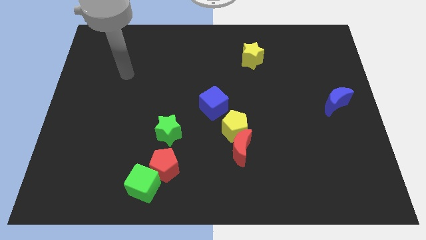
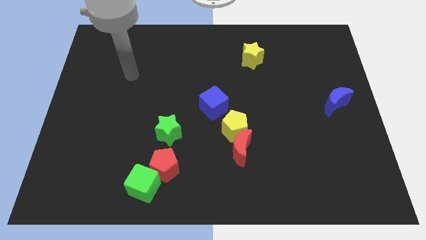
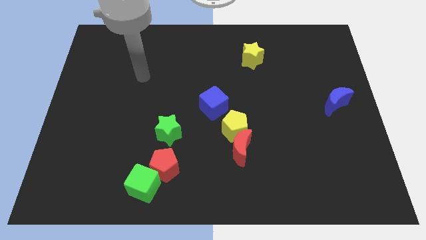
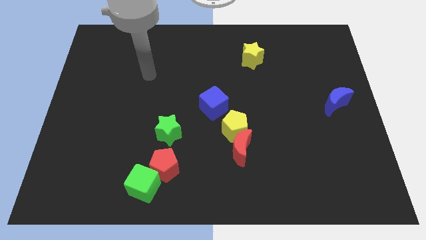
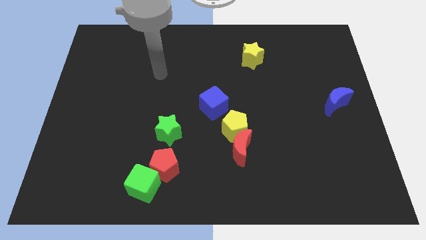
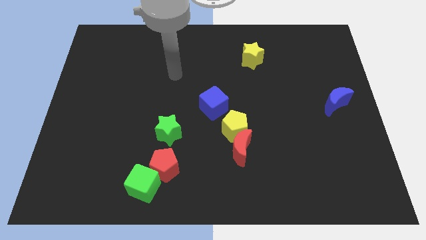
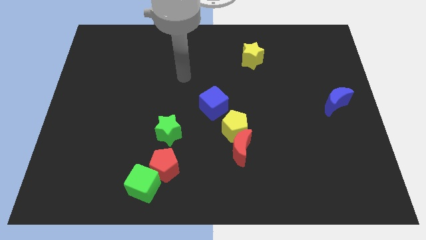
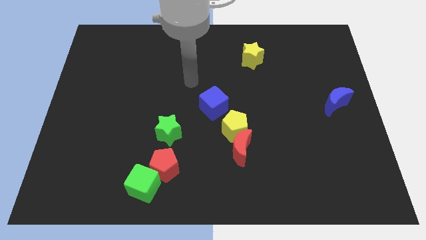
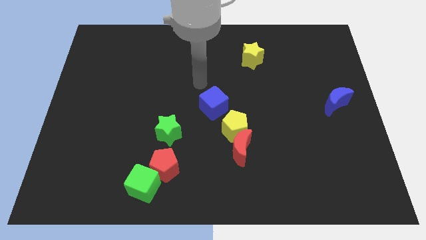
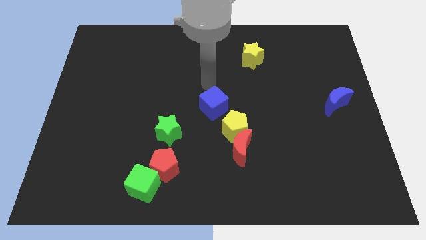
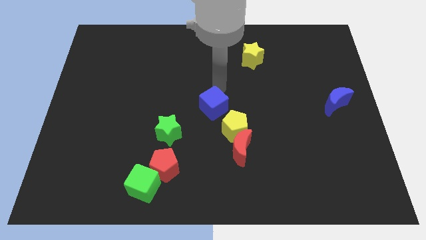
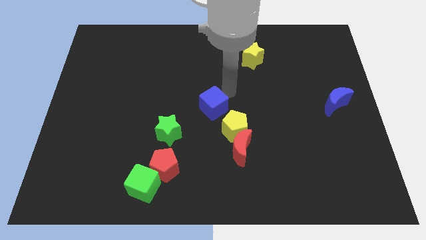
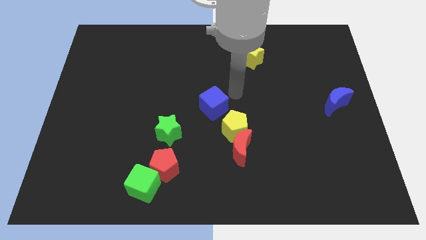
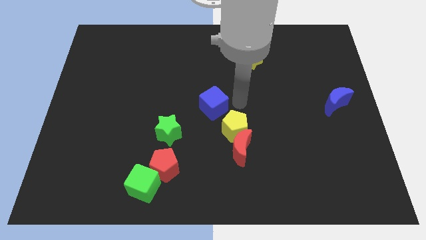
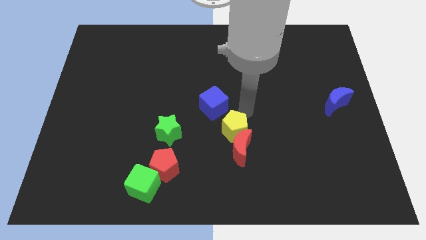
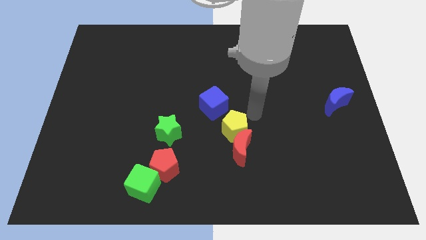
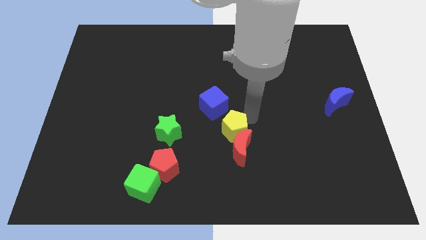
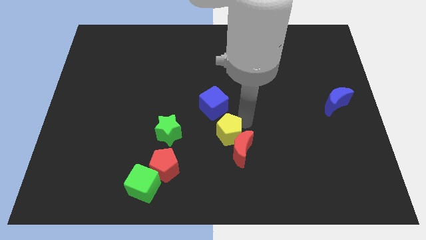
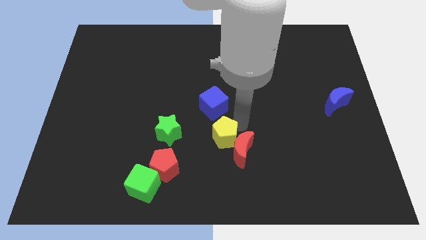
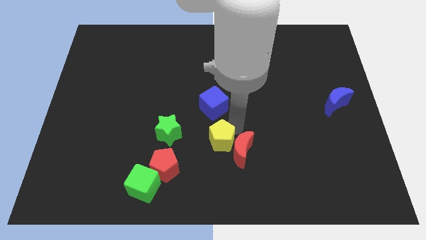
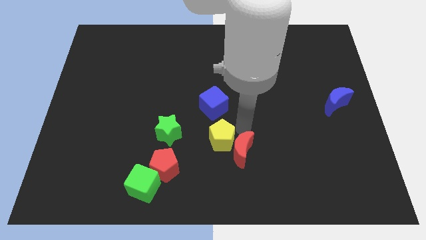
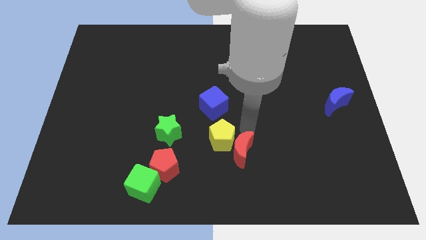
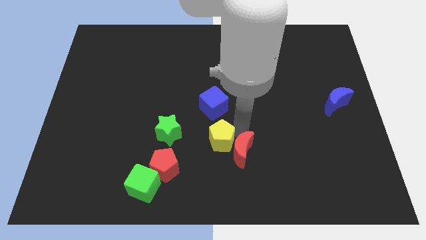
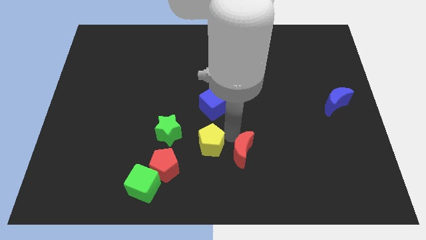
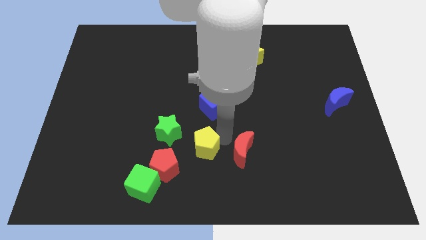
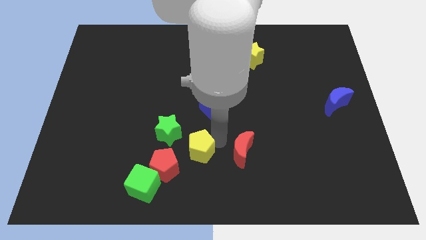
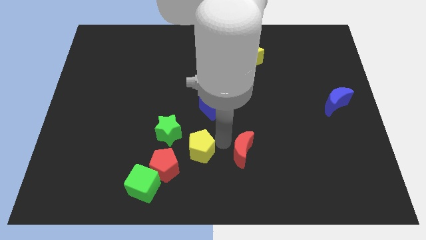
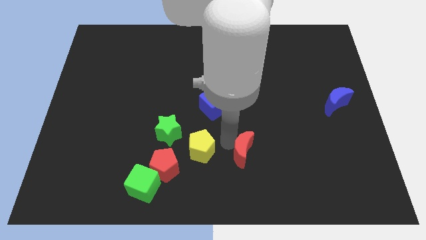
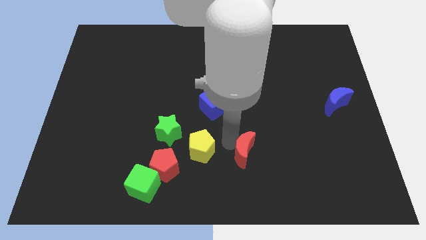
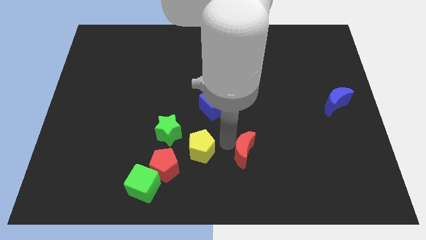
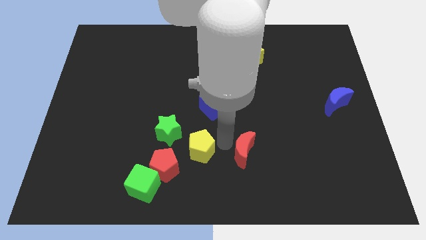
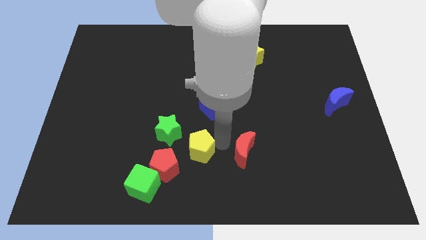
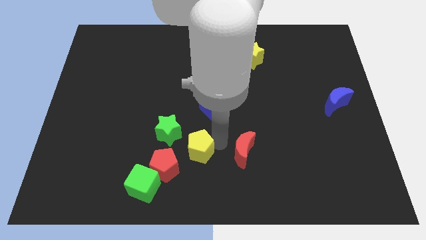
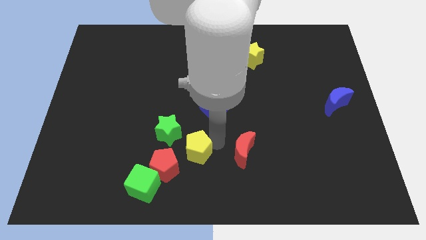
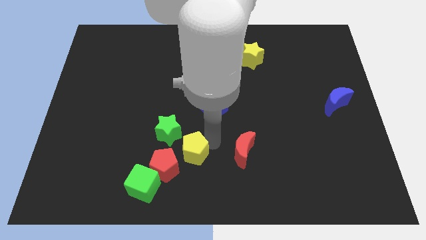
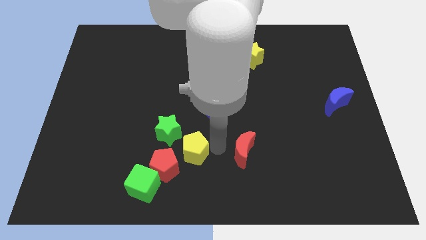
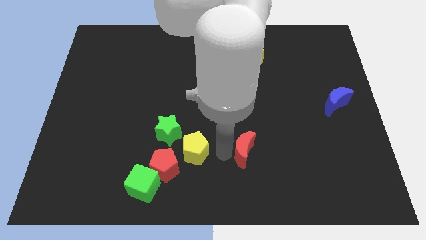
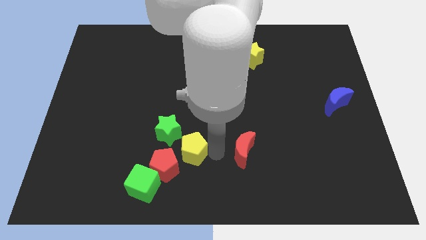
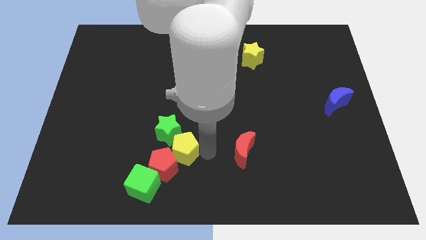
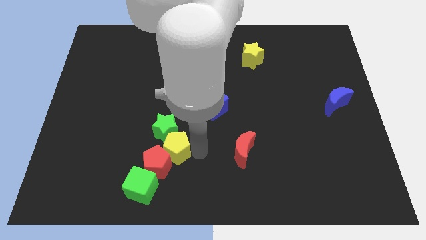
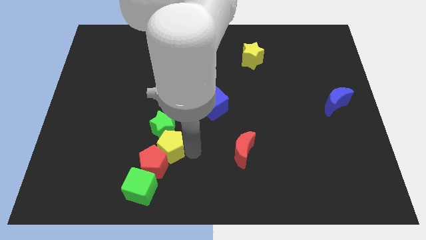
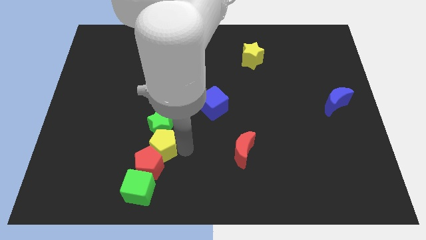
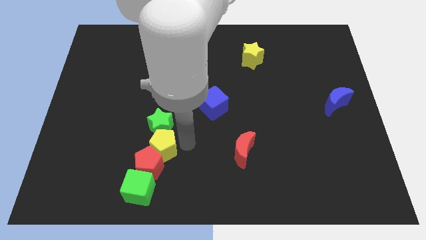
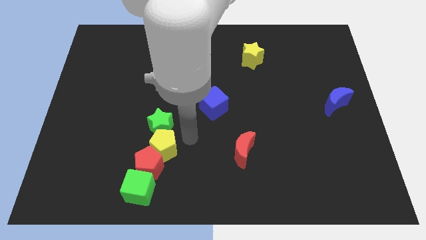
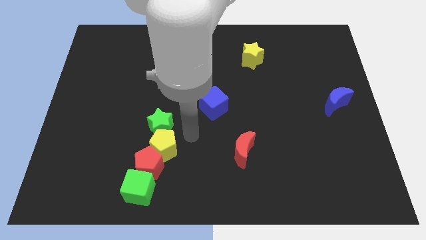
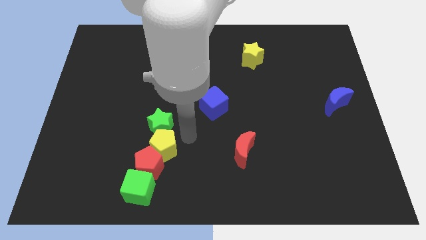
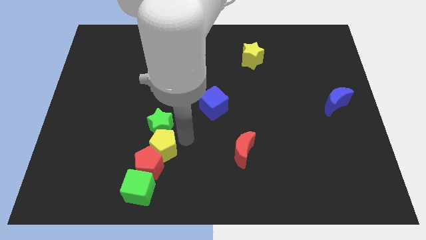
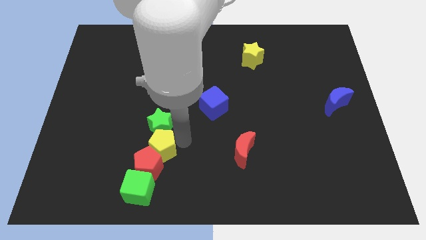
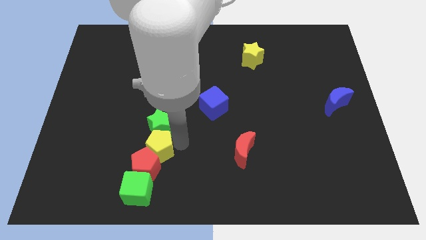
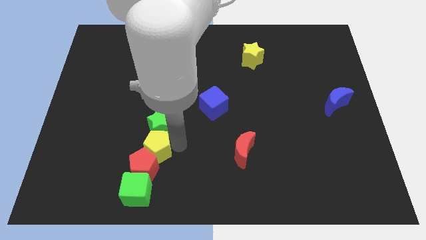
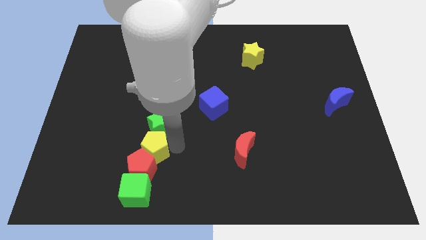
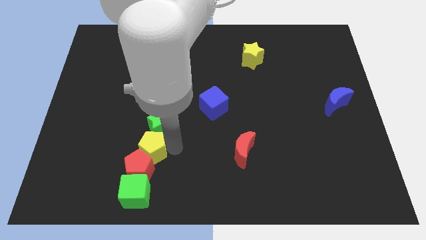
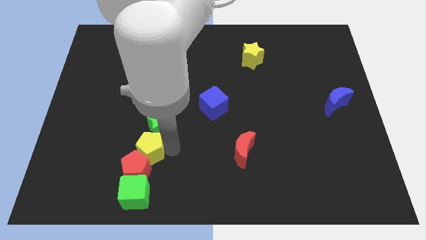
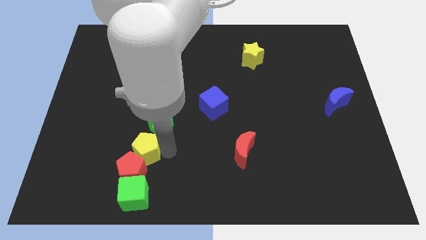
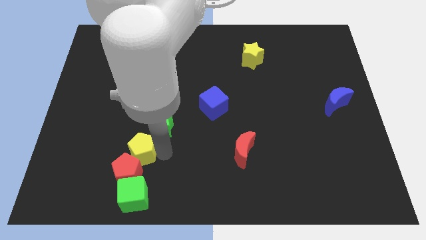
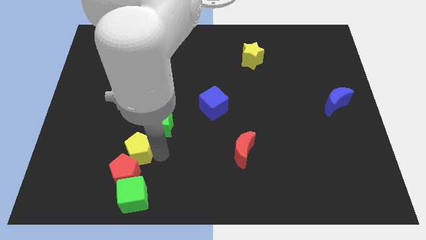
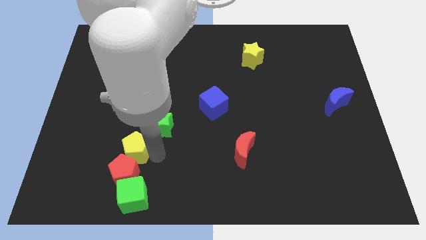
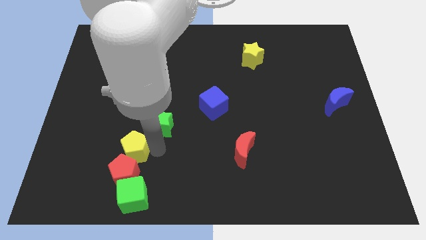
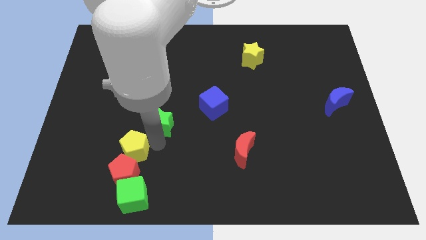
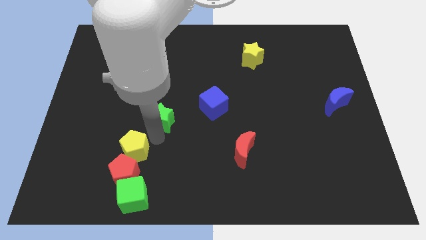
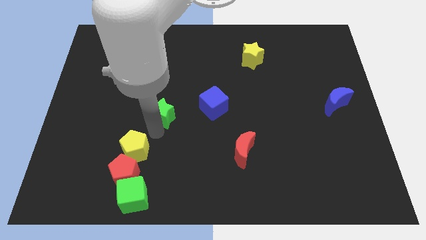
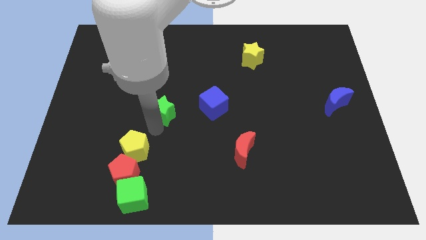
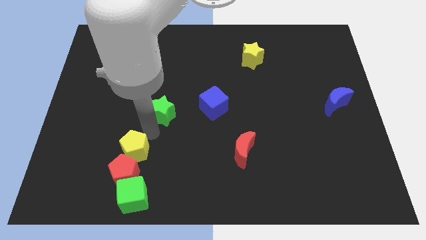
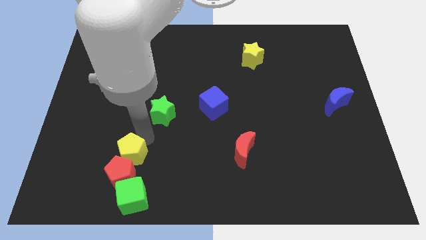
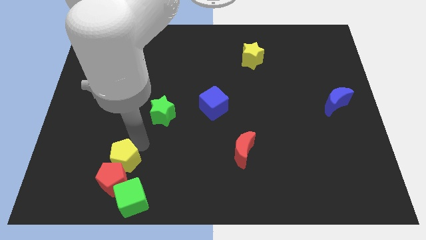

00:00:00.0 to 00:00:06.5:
put the yellow pentagon to the top left of the green cube
